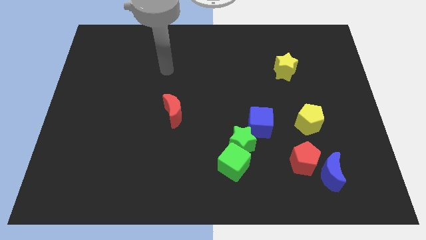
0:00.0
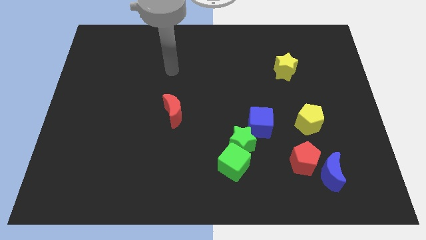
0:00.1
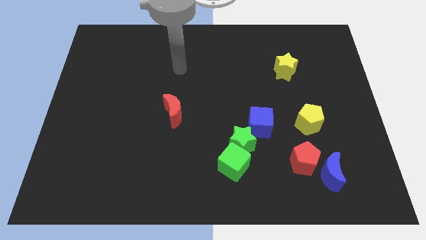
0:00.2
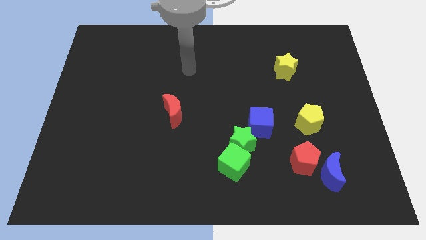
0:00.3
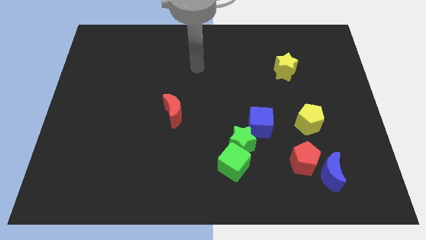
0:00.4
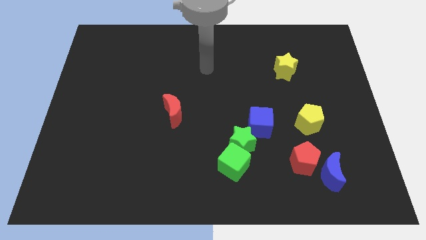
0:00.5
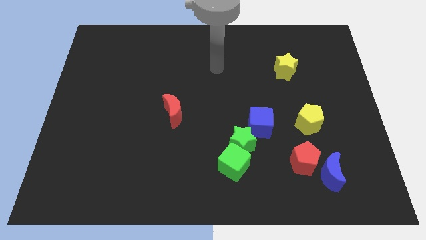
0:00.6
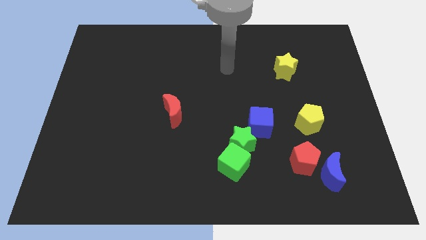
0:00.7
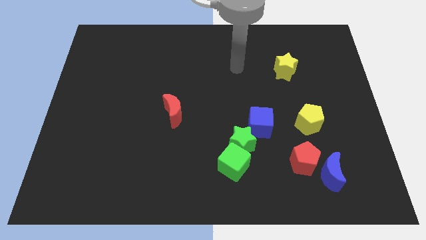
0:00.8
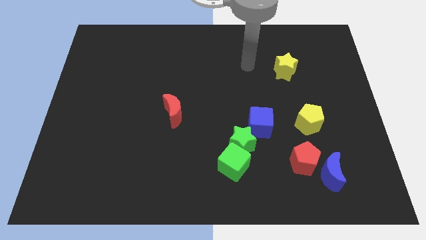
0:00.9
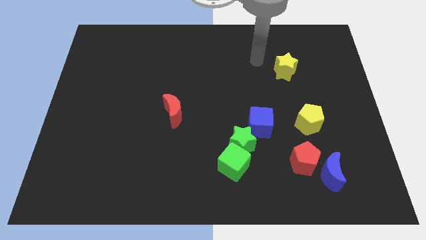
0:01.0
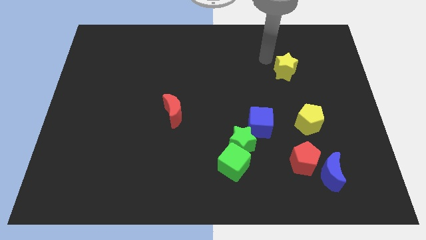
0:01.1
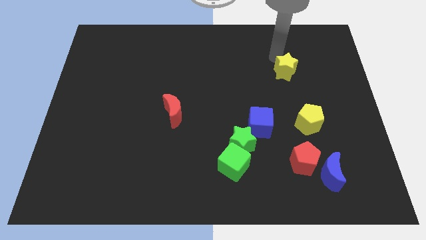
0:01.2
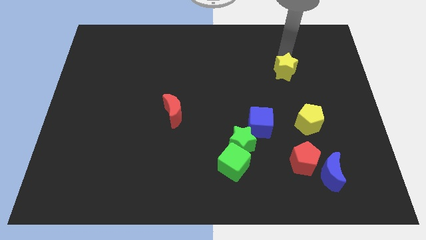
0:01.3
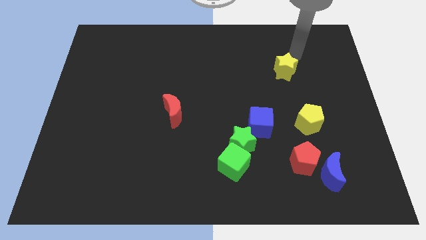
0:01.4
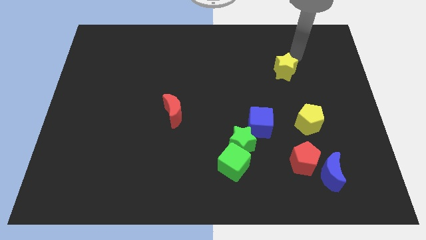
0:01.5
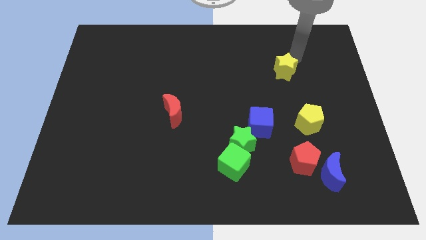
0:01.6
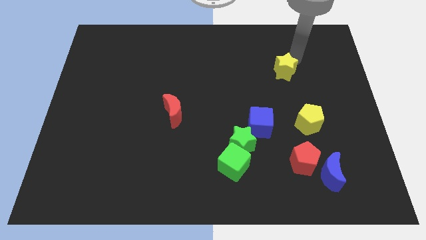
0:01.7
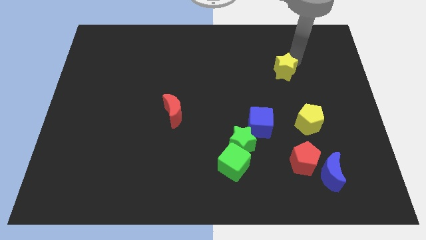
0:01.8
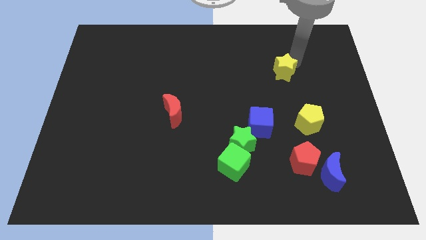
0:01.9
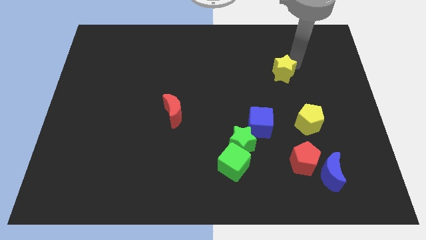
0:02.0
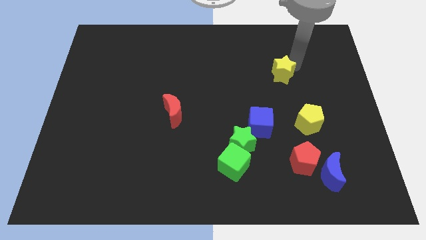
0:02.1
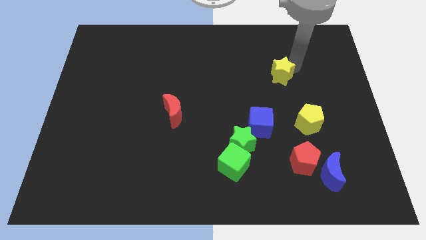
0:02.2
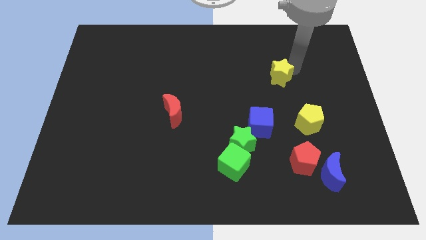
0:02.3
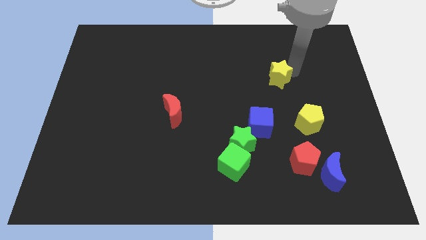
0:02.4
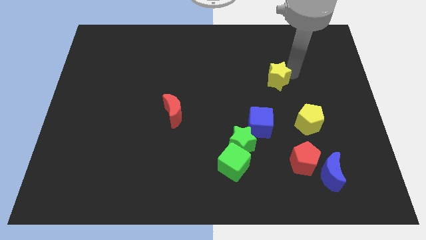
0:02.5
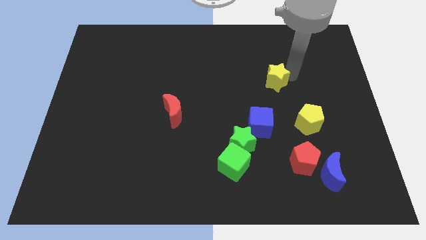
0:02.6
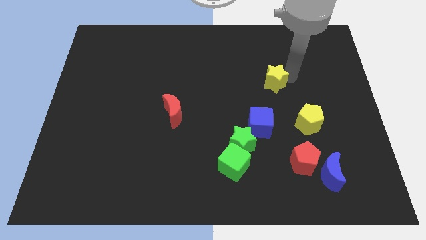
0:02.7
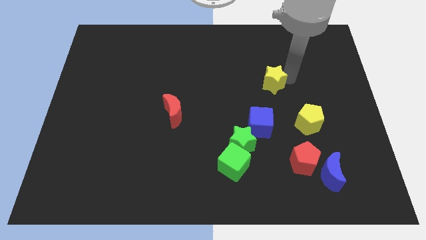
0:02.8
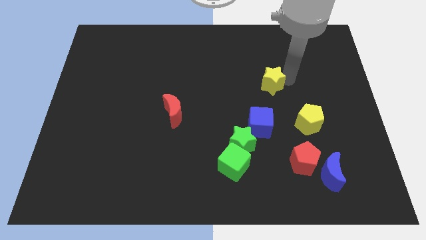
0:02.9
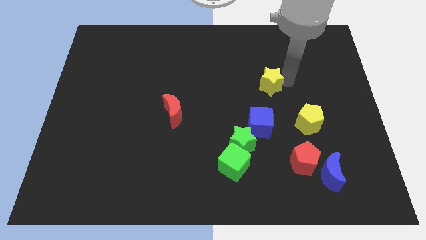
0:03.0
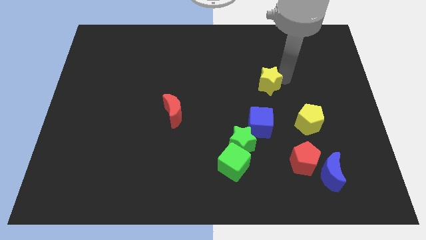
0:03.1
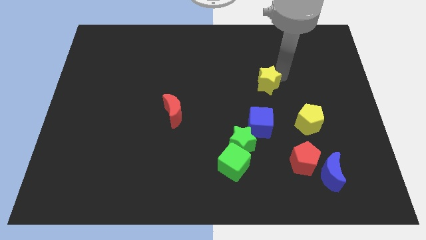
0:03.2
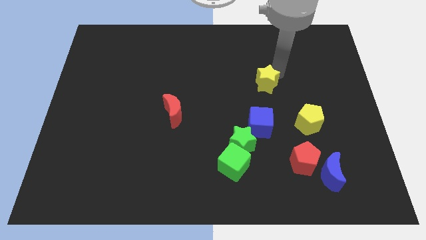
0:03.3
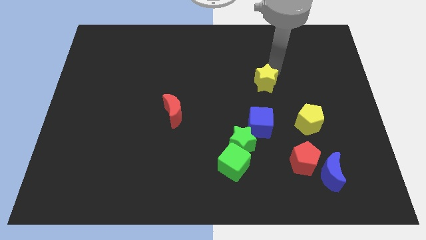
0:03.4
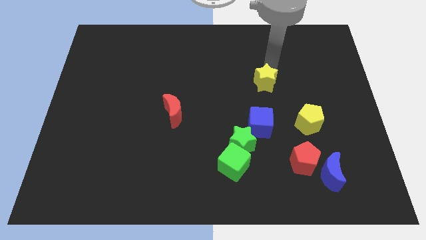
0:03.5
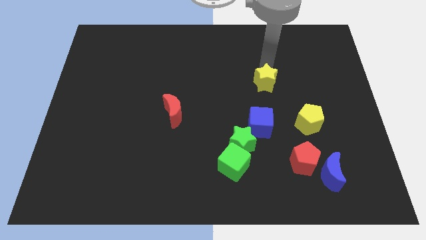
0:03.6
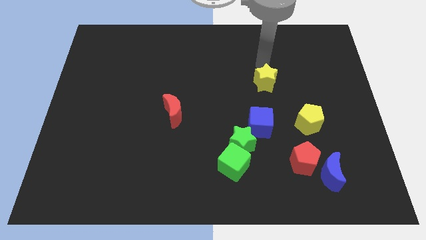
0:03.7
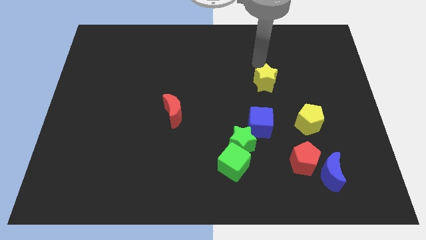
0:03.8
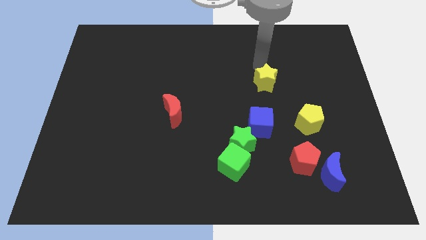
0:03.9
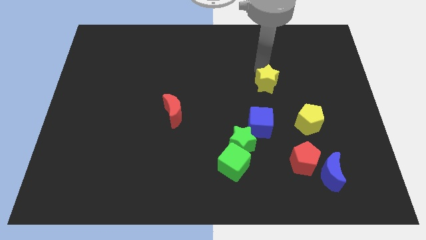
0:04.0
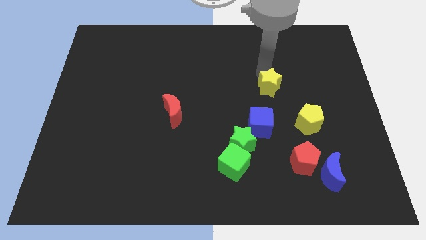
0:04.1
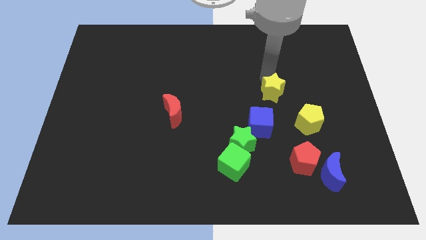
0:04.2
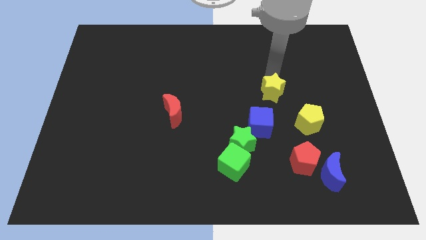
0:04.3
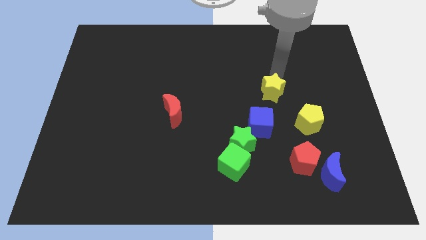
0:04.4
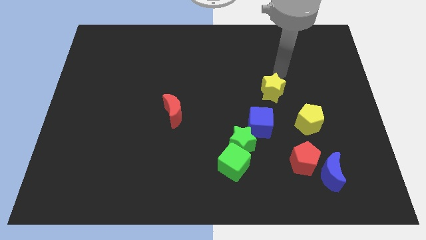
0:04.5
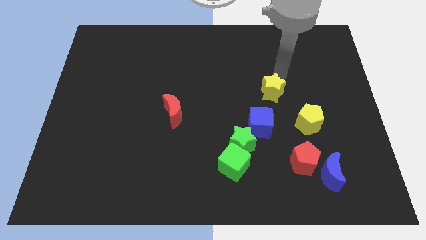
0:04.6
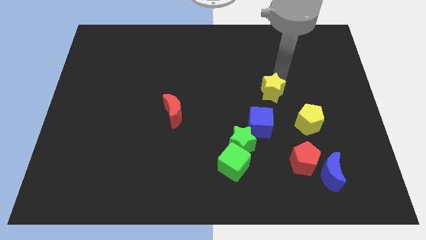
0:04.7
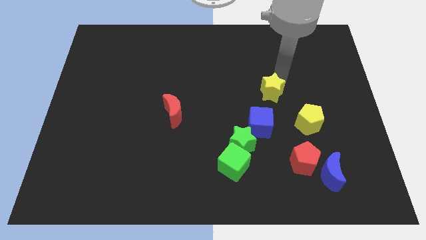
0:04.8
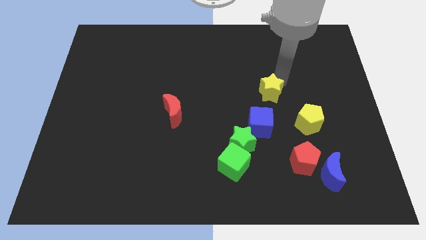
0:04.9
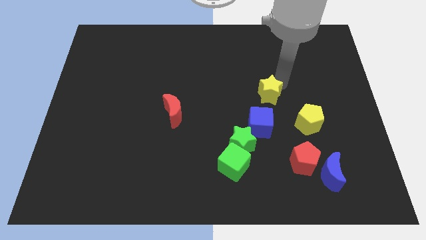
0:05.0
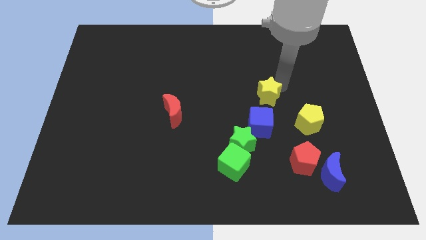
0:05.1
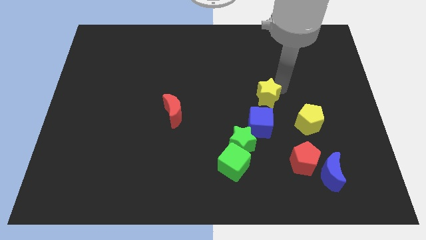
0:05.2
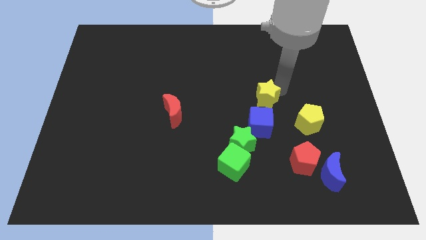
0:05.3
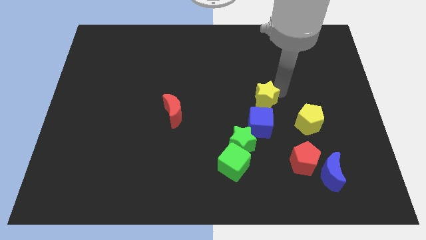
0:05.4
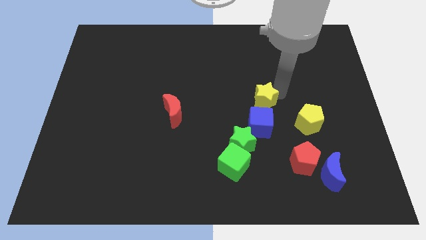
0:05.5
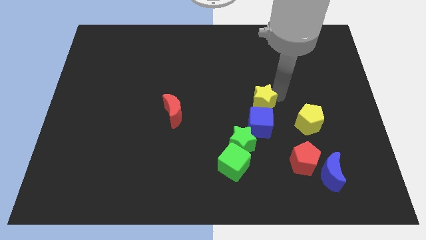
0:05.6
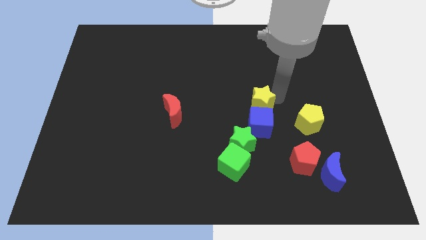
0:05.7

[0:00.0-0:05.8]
slide the yellow star towards the blue cube
